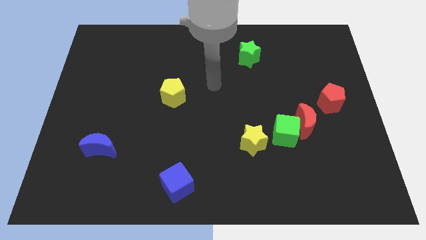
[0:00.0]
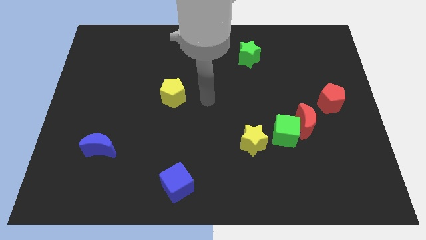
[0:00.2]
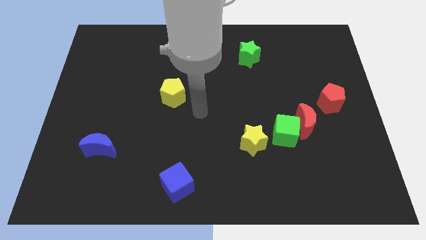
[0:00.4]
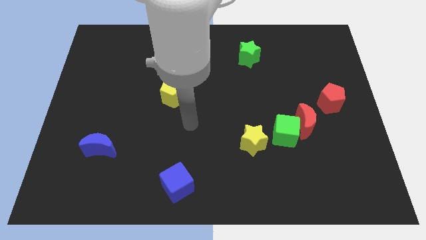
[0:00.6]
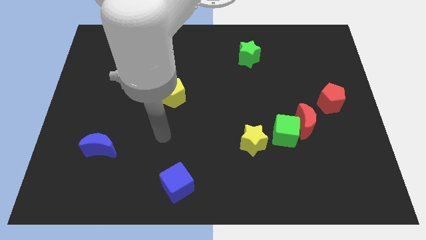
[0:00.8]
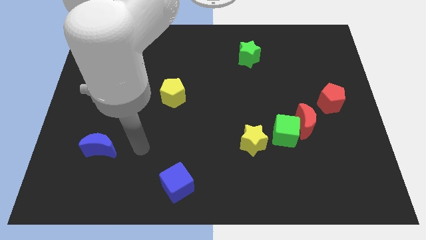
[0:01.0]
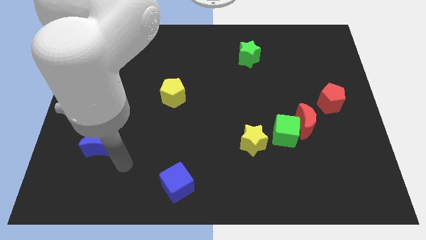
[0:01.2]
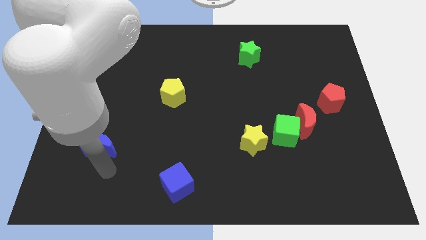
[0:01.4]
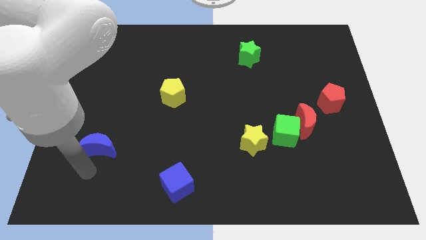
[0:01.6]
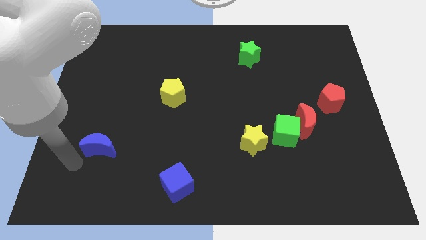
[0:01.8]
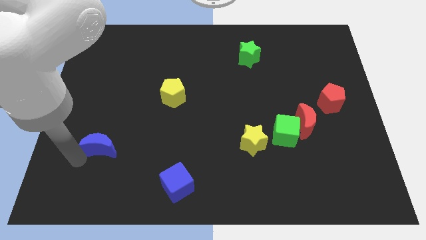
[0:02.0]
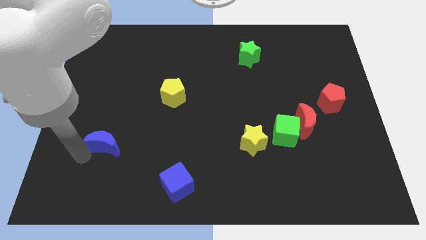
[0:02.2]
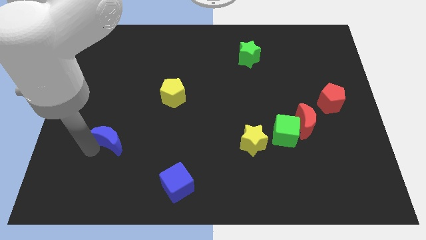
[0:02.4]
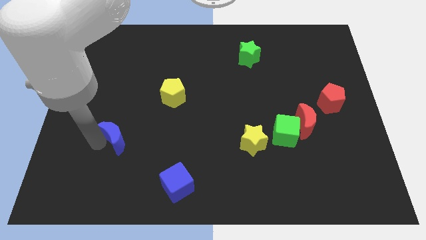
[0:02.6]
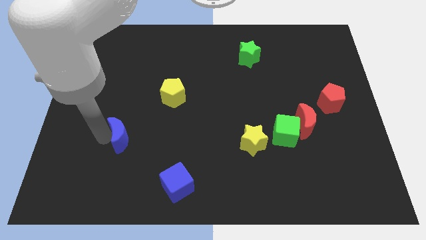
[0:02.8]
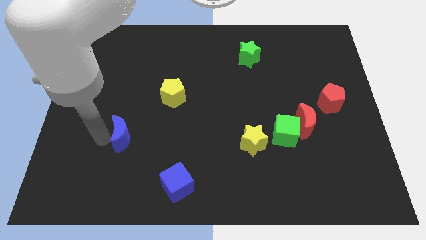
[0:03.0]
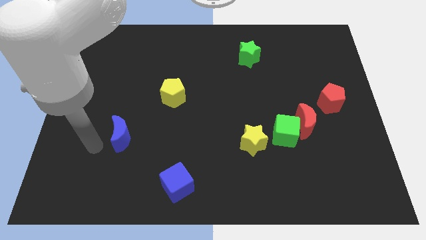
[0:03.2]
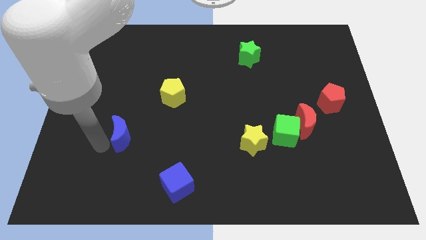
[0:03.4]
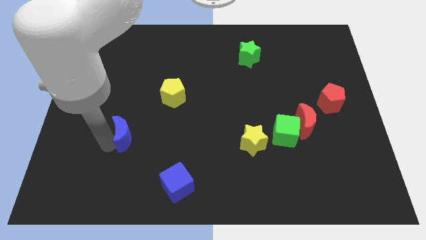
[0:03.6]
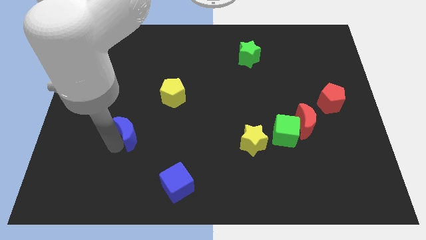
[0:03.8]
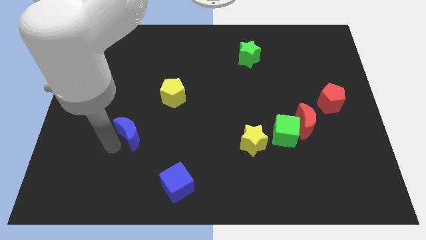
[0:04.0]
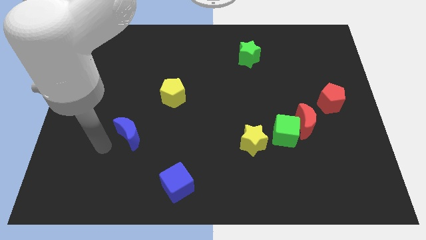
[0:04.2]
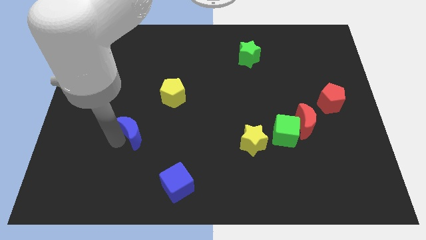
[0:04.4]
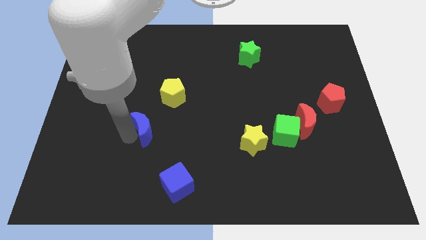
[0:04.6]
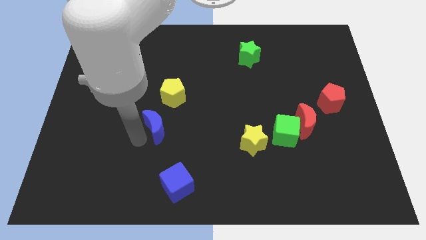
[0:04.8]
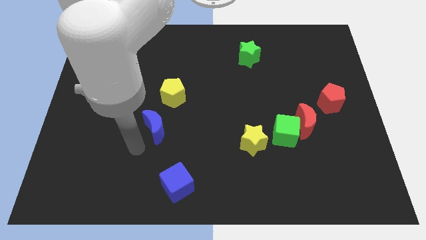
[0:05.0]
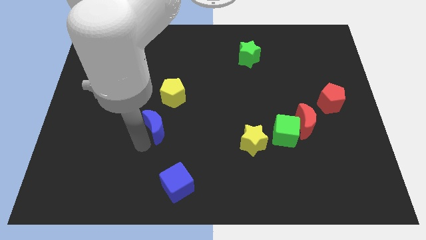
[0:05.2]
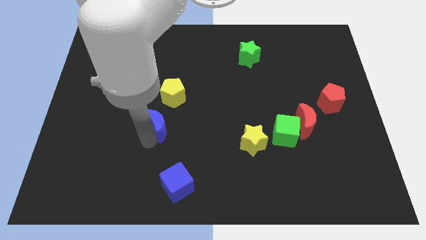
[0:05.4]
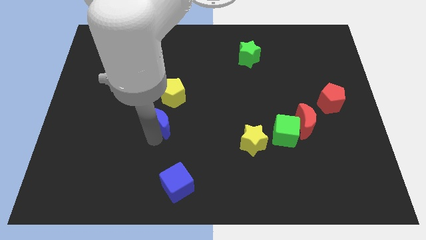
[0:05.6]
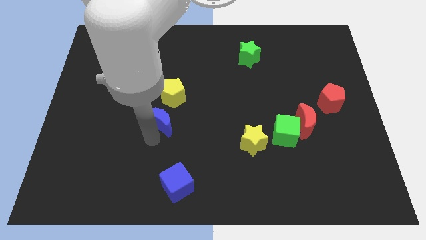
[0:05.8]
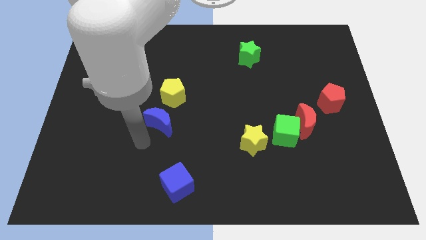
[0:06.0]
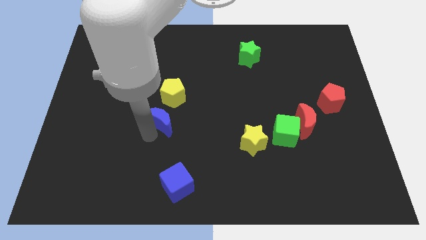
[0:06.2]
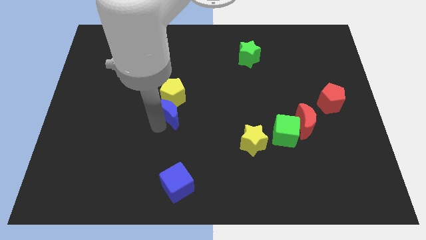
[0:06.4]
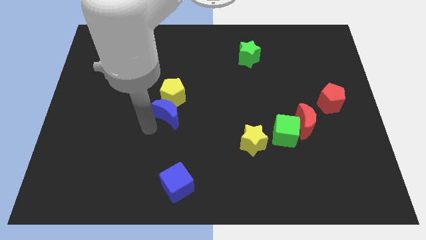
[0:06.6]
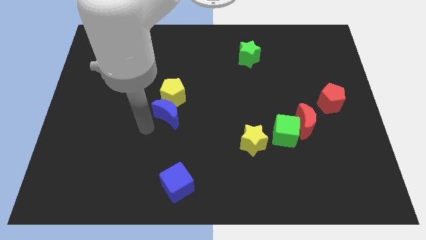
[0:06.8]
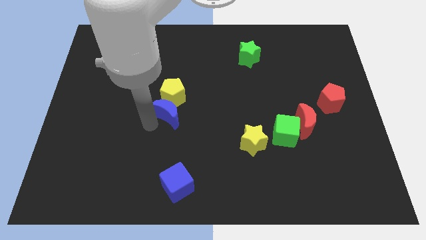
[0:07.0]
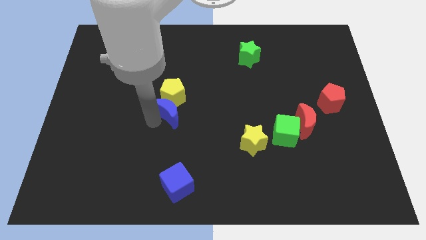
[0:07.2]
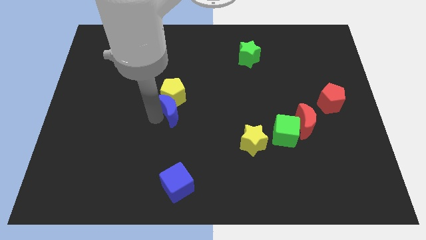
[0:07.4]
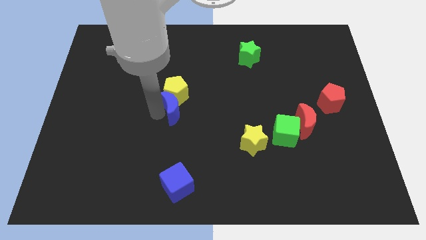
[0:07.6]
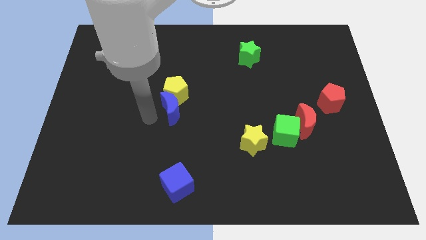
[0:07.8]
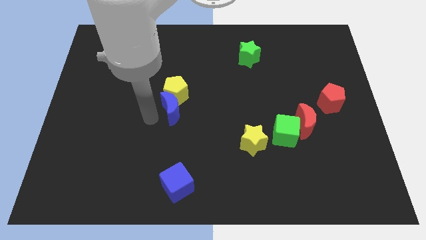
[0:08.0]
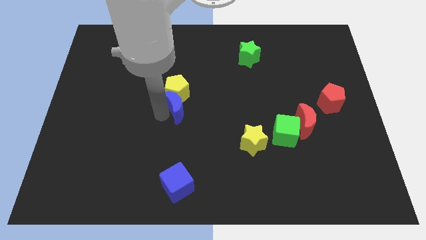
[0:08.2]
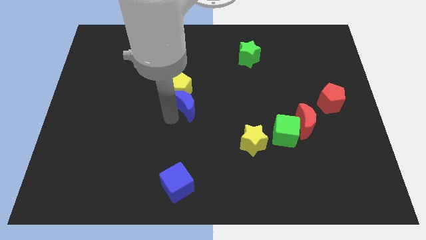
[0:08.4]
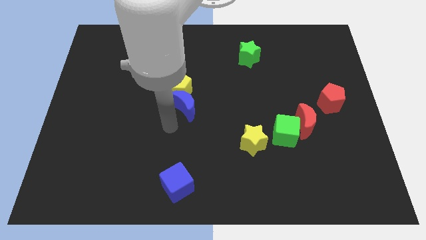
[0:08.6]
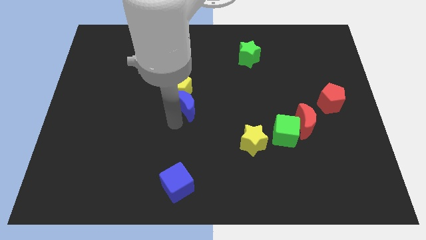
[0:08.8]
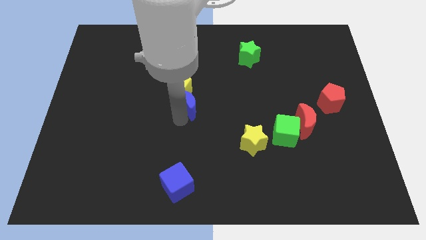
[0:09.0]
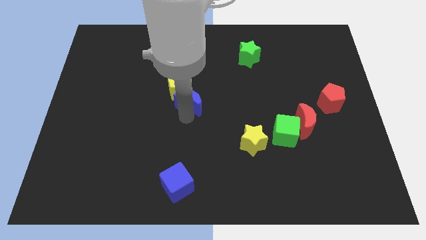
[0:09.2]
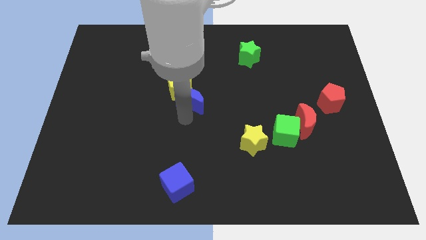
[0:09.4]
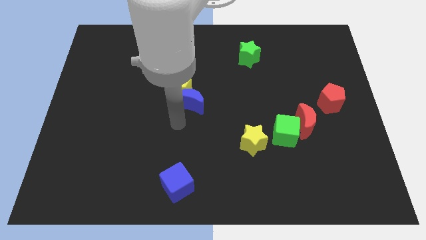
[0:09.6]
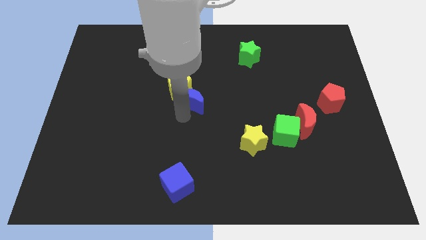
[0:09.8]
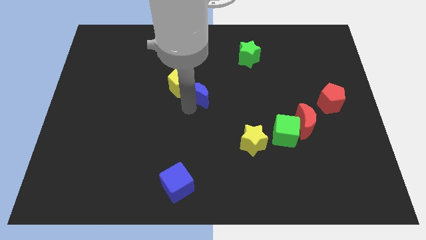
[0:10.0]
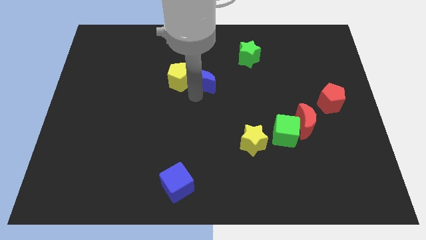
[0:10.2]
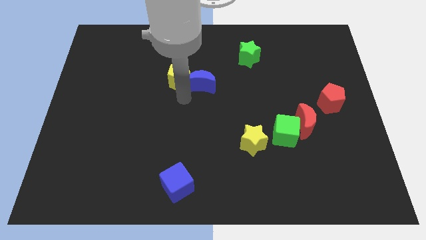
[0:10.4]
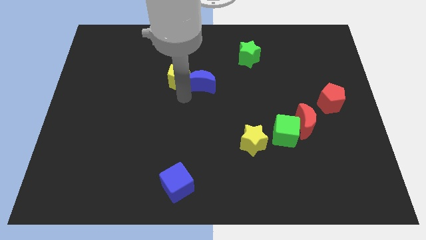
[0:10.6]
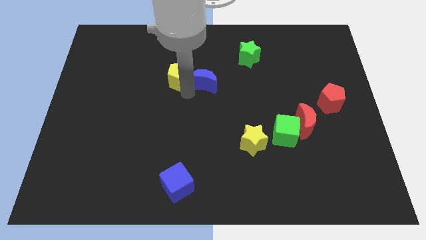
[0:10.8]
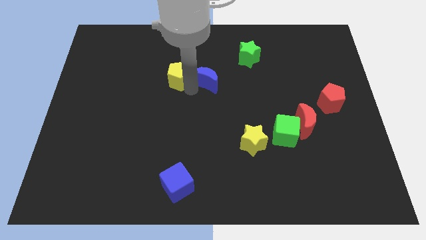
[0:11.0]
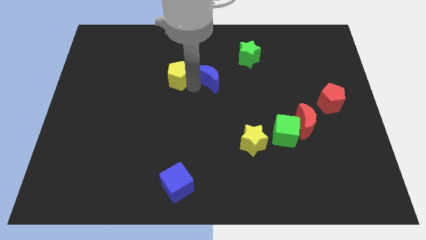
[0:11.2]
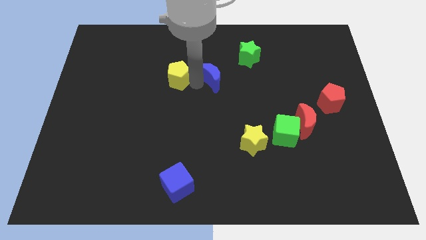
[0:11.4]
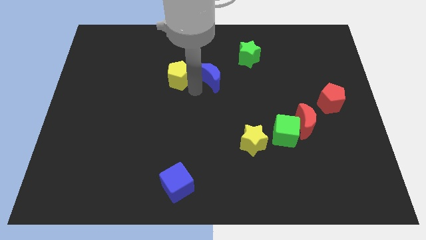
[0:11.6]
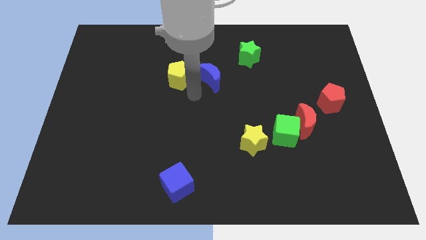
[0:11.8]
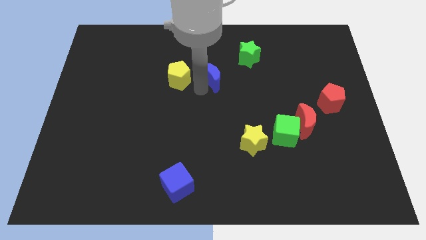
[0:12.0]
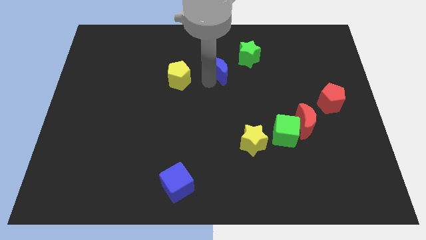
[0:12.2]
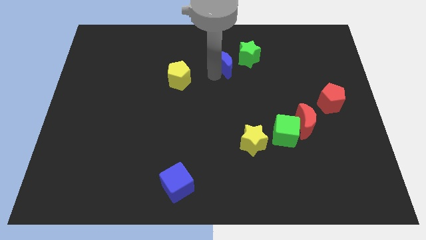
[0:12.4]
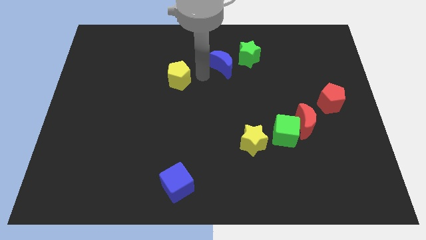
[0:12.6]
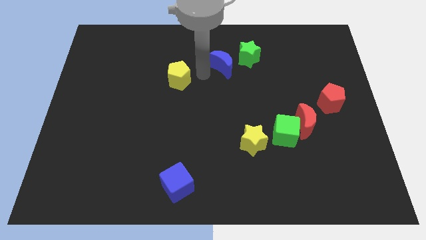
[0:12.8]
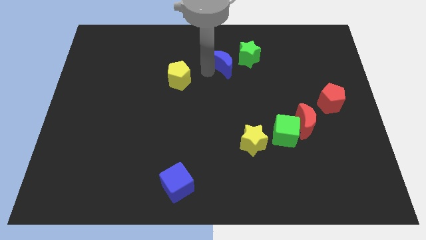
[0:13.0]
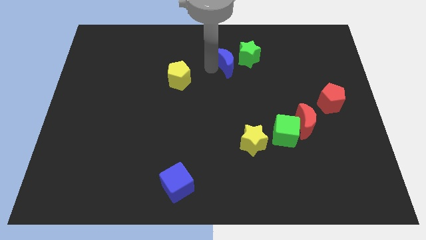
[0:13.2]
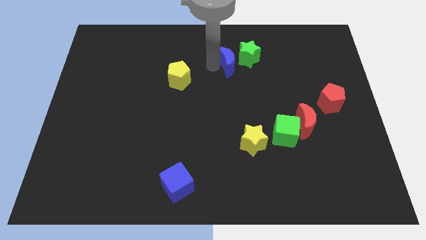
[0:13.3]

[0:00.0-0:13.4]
push the blue moon to the green star

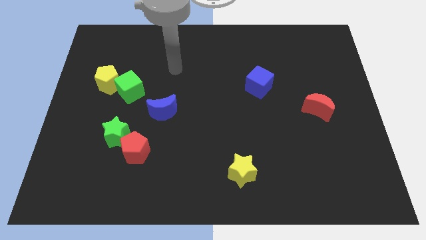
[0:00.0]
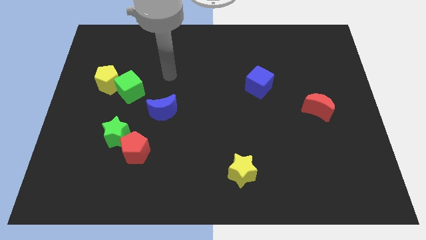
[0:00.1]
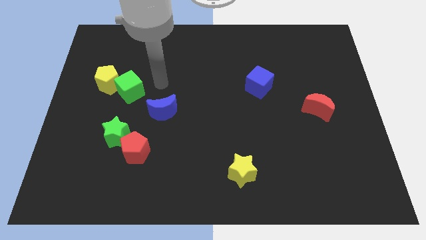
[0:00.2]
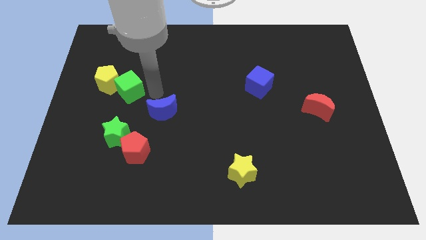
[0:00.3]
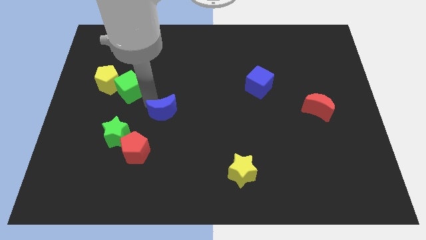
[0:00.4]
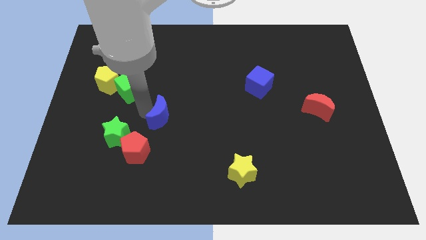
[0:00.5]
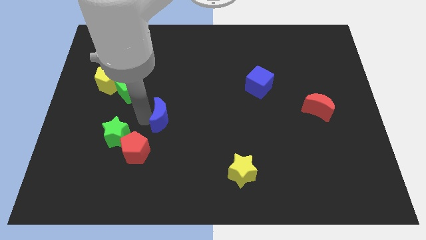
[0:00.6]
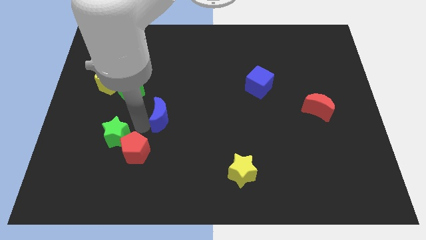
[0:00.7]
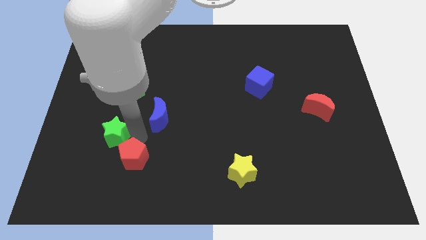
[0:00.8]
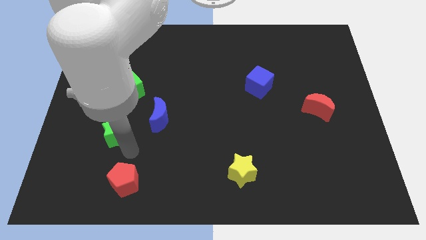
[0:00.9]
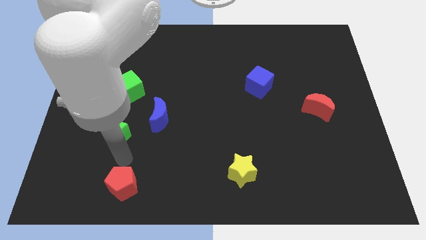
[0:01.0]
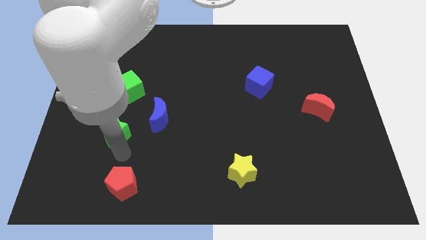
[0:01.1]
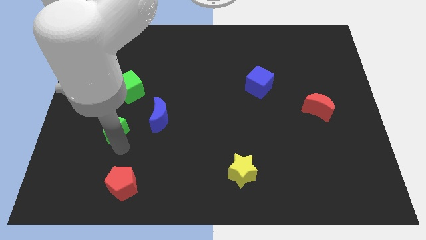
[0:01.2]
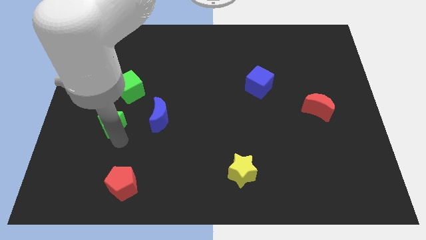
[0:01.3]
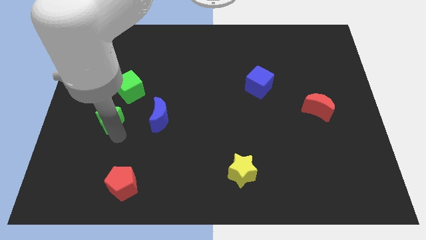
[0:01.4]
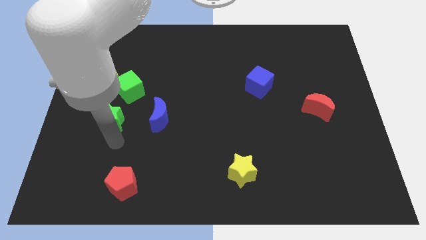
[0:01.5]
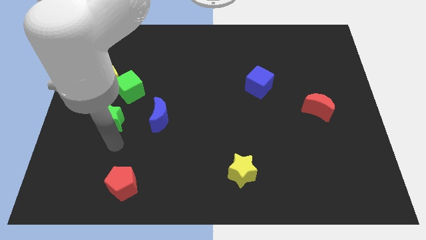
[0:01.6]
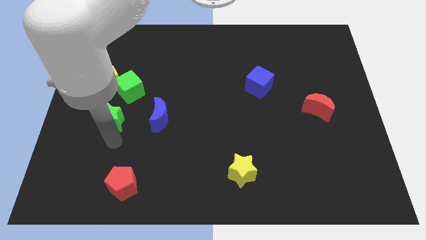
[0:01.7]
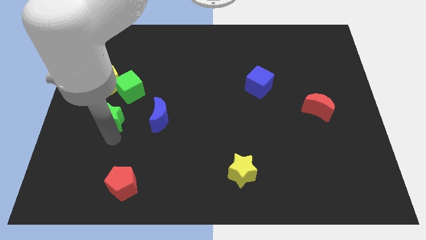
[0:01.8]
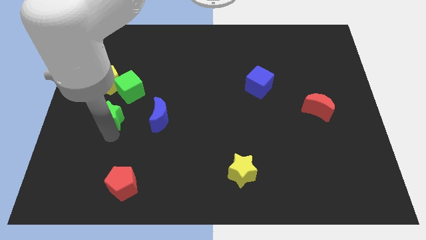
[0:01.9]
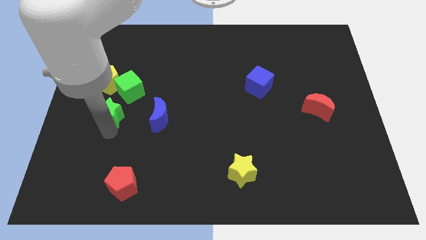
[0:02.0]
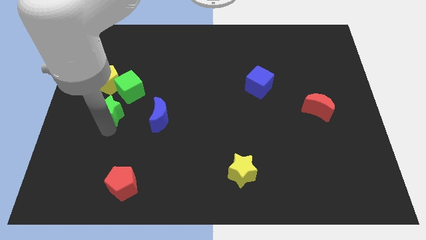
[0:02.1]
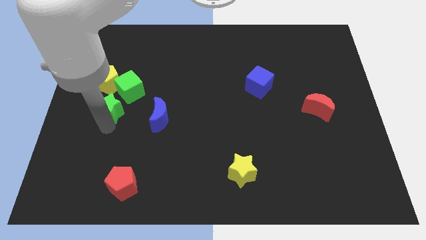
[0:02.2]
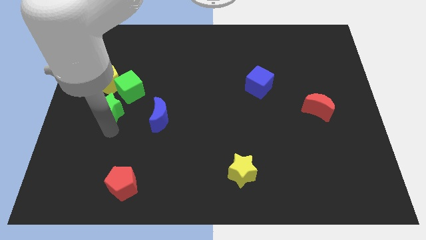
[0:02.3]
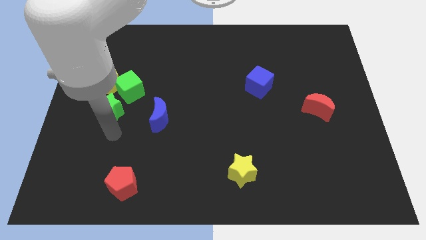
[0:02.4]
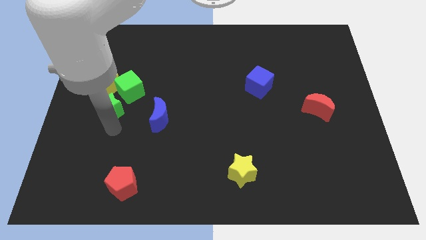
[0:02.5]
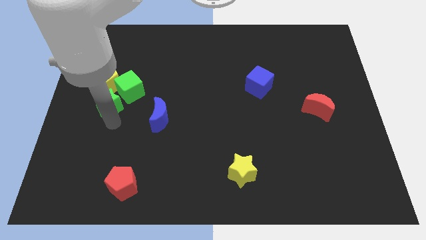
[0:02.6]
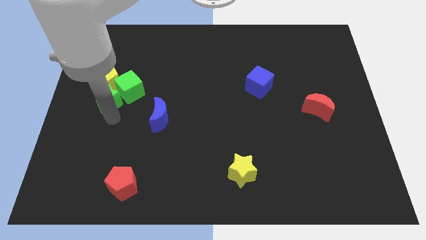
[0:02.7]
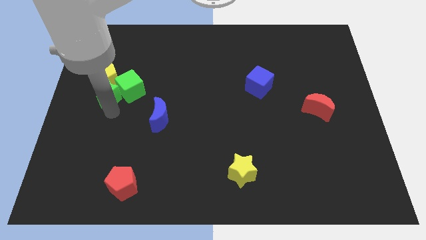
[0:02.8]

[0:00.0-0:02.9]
push the green star towards the yellow pentagon
